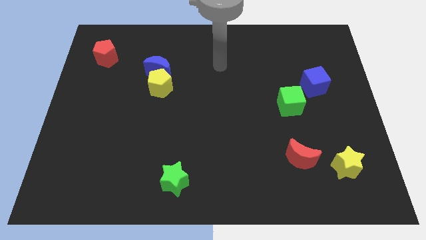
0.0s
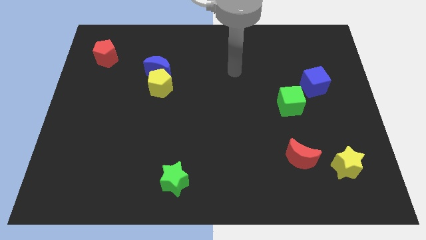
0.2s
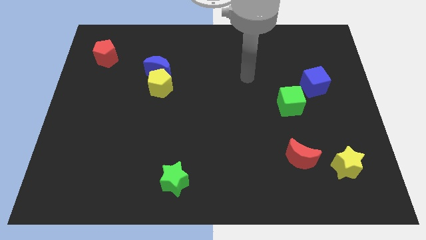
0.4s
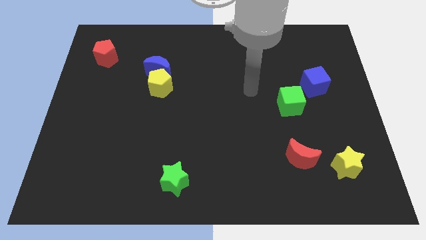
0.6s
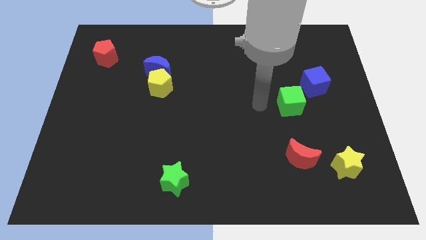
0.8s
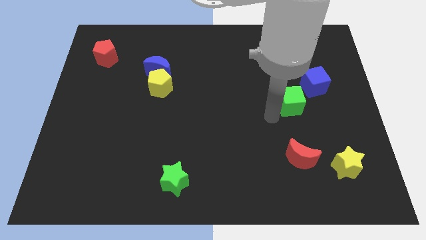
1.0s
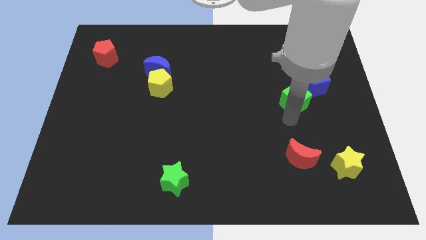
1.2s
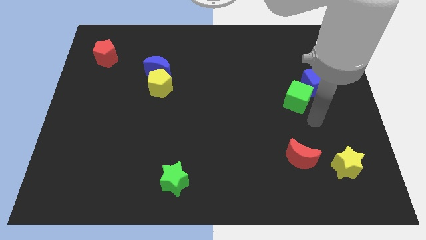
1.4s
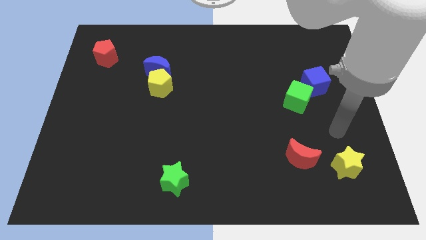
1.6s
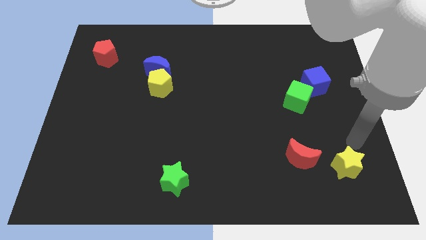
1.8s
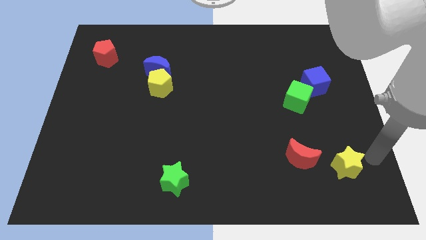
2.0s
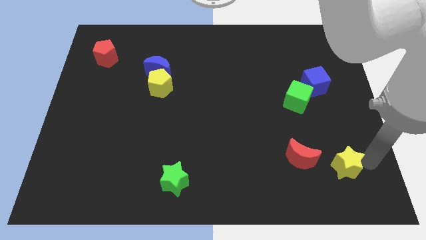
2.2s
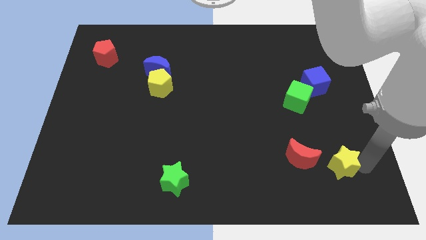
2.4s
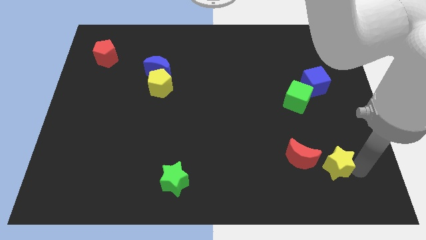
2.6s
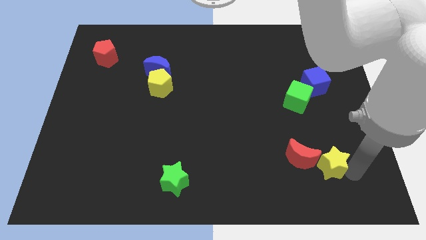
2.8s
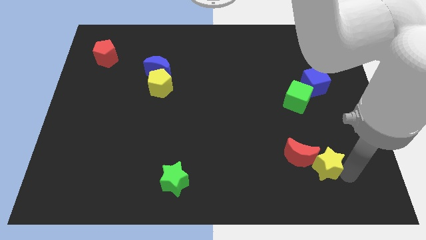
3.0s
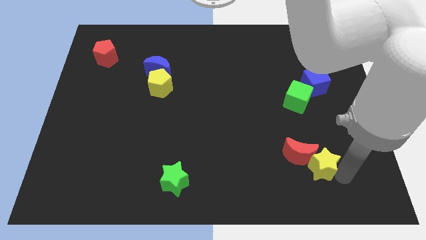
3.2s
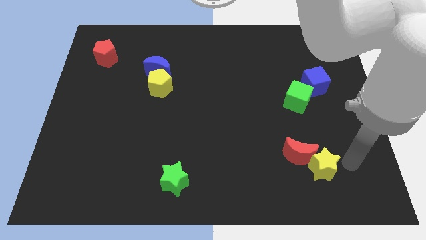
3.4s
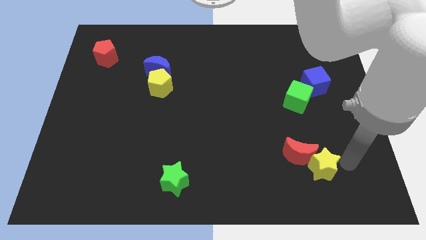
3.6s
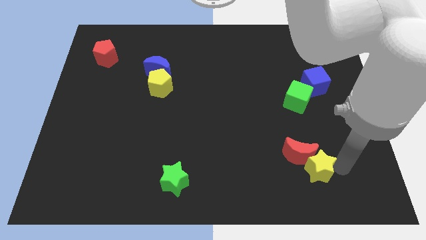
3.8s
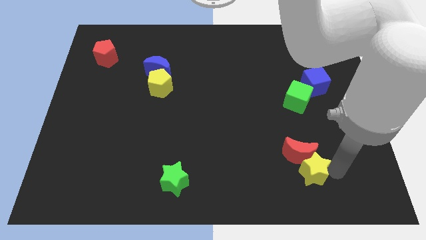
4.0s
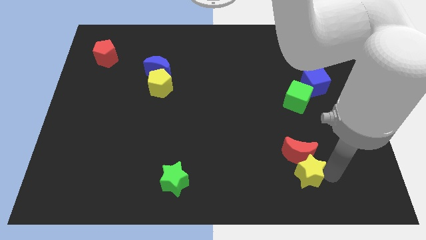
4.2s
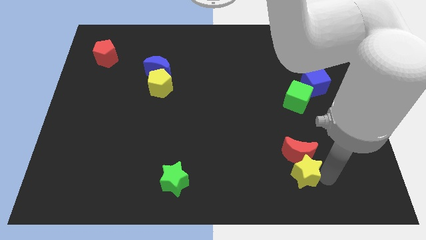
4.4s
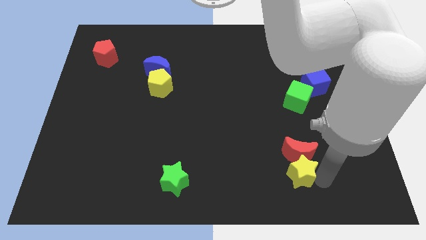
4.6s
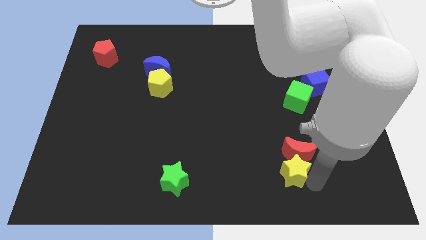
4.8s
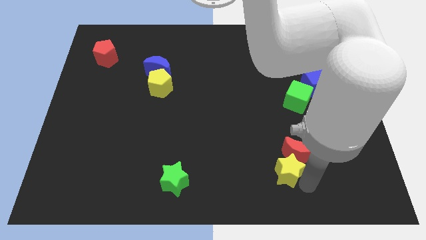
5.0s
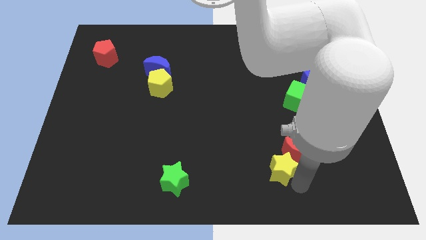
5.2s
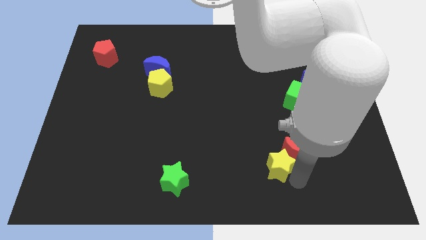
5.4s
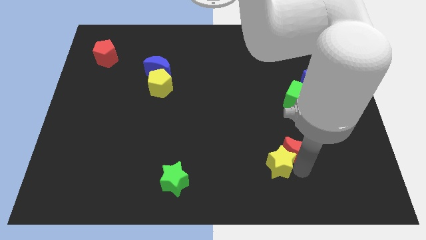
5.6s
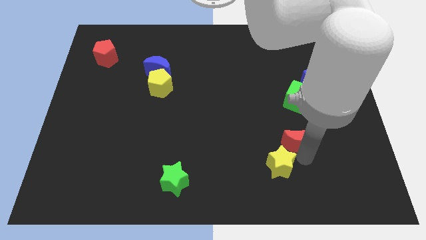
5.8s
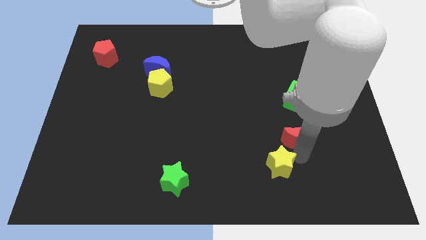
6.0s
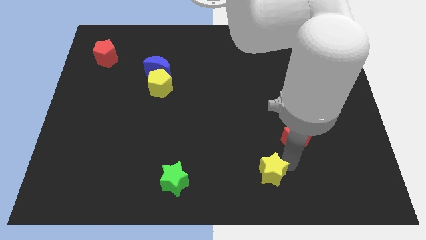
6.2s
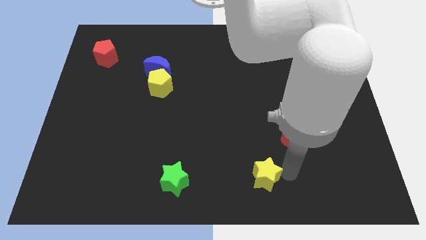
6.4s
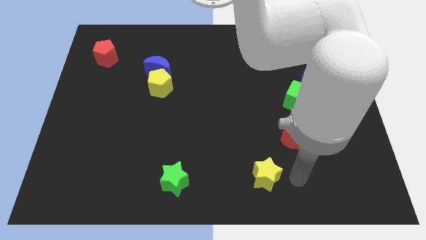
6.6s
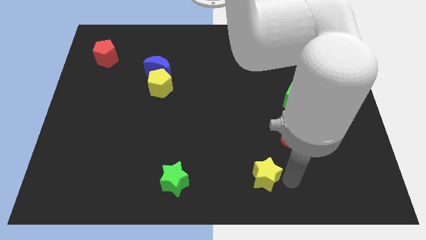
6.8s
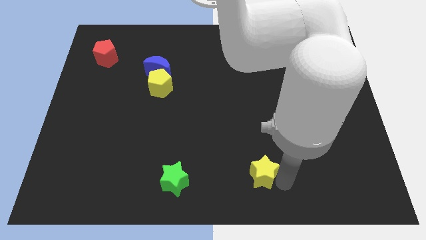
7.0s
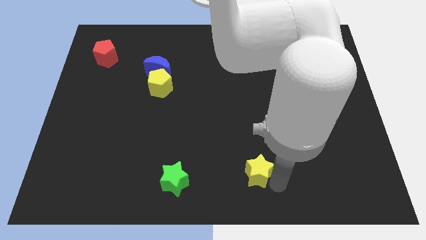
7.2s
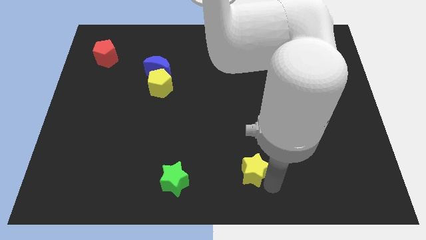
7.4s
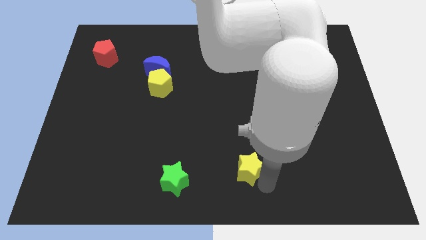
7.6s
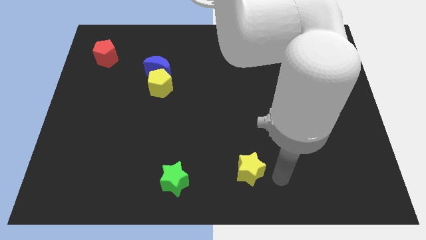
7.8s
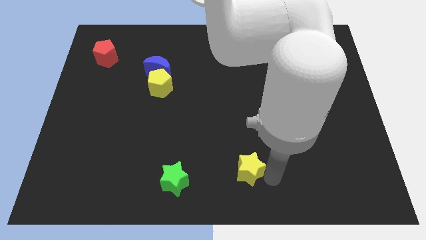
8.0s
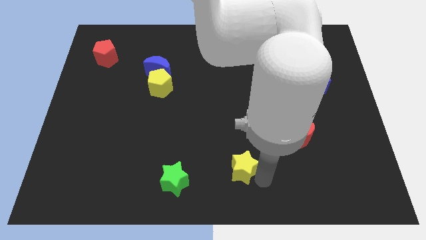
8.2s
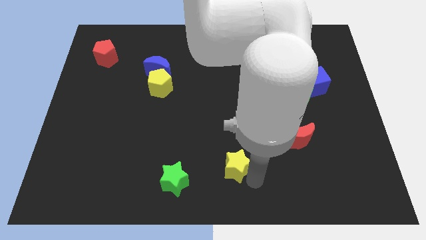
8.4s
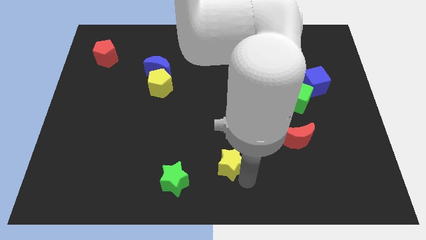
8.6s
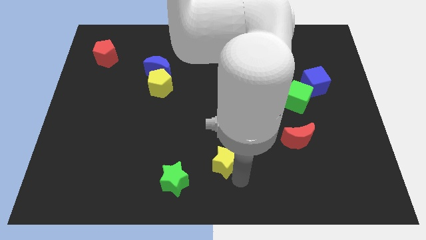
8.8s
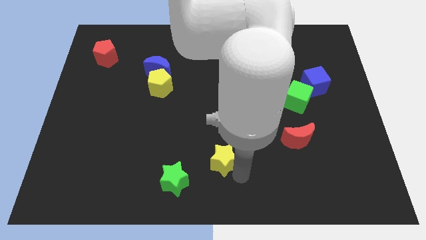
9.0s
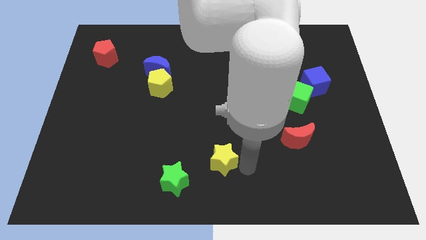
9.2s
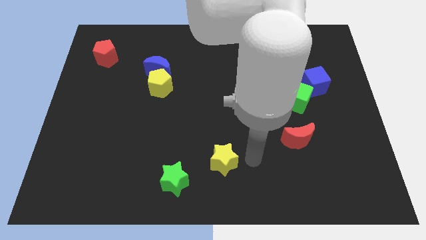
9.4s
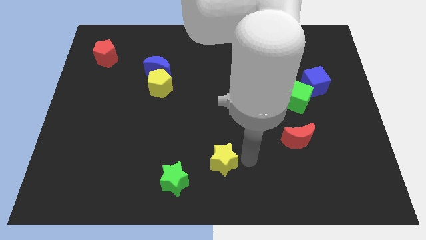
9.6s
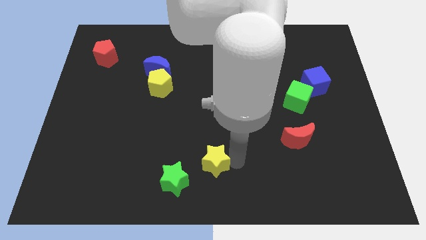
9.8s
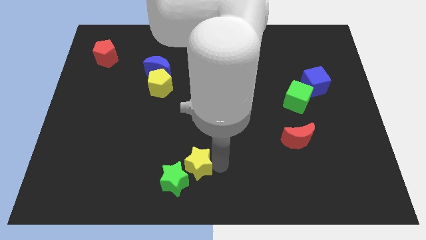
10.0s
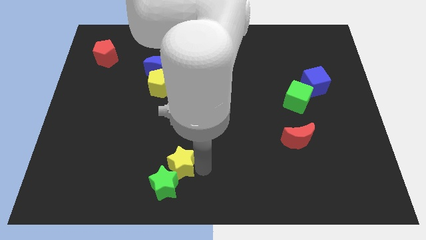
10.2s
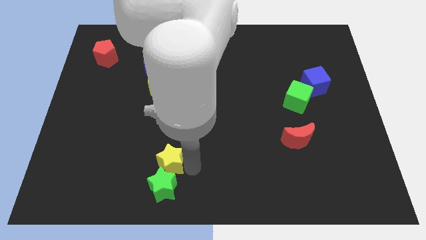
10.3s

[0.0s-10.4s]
move the yellow star to the top left side of the green star

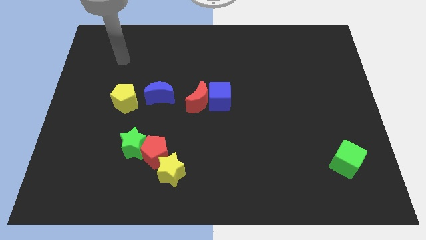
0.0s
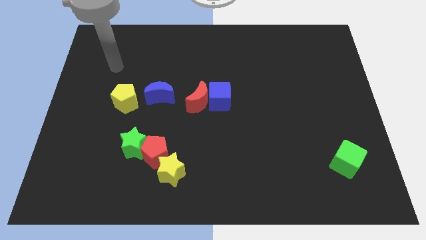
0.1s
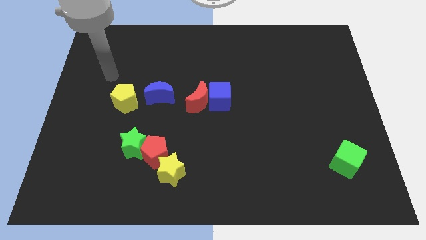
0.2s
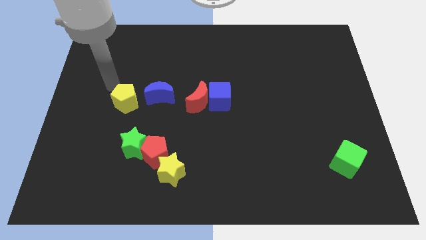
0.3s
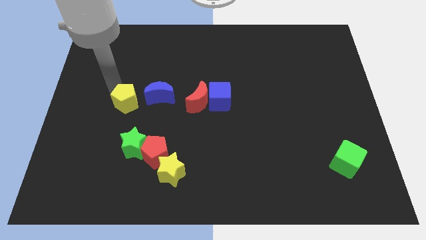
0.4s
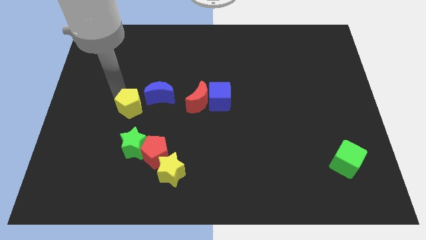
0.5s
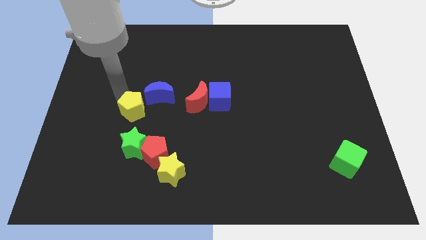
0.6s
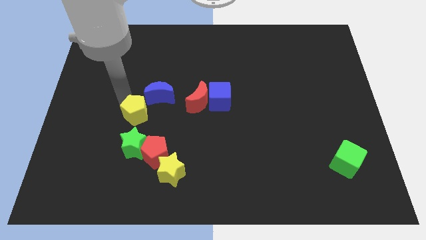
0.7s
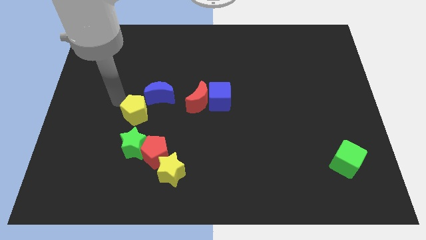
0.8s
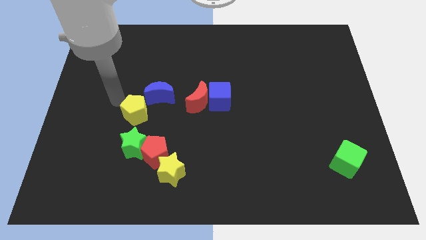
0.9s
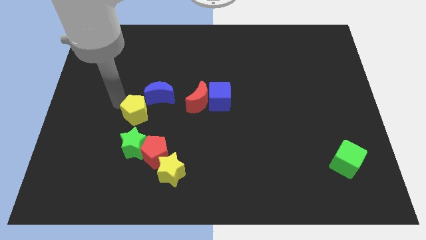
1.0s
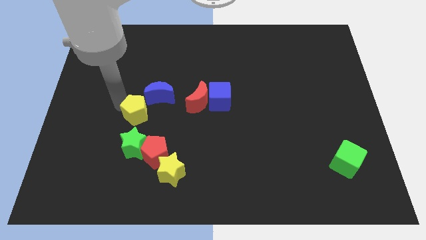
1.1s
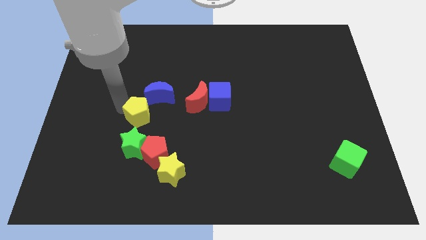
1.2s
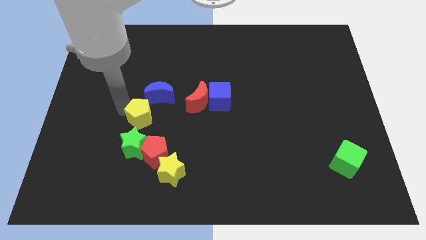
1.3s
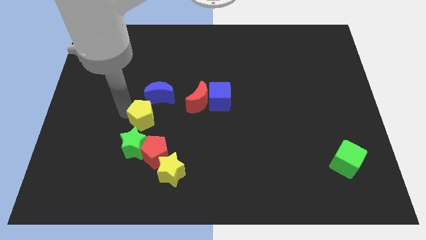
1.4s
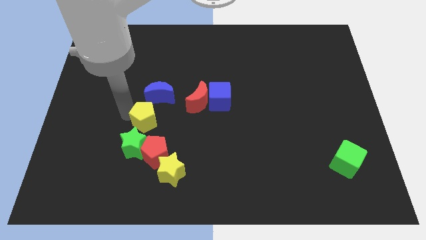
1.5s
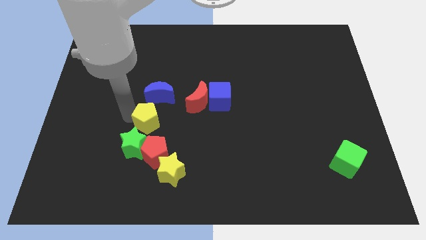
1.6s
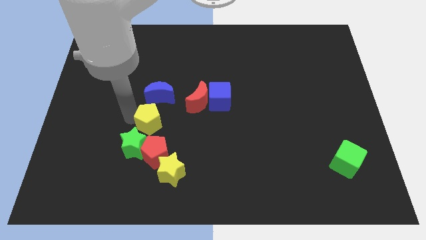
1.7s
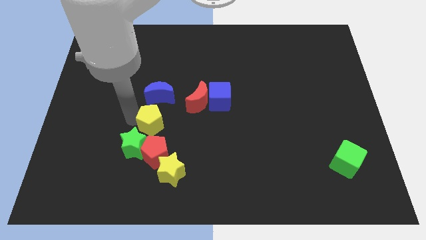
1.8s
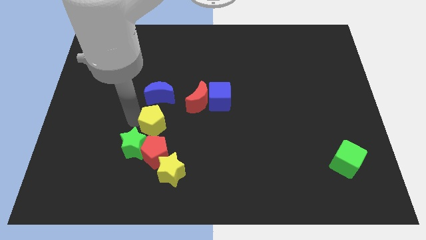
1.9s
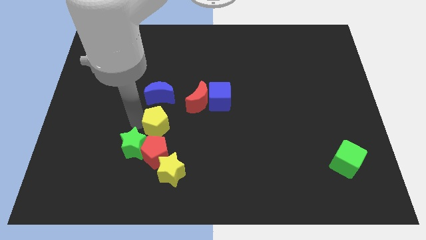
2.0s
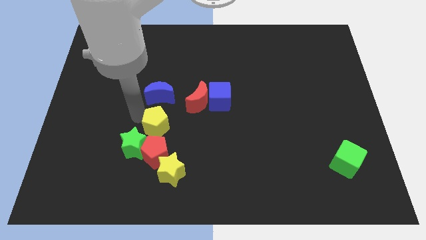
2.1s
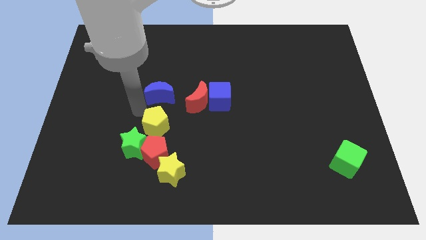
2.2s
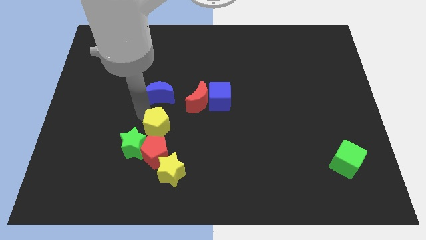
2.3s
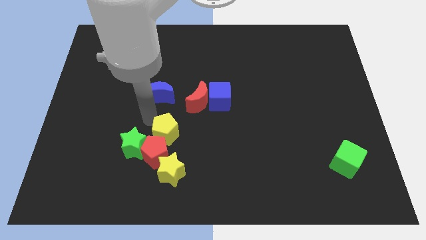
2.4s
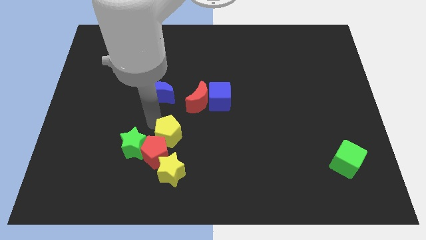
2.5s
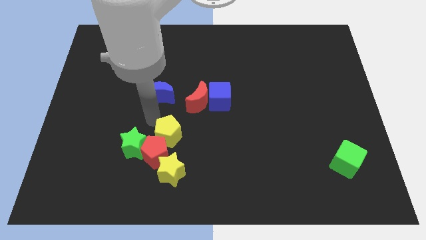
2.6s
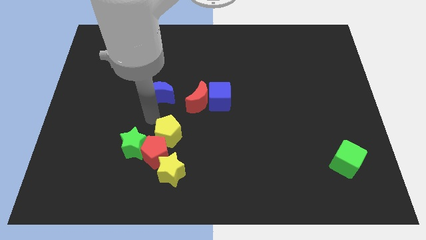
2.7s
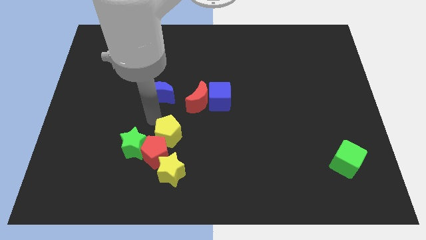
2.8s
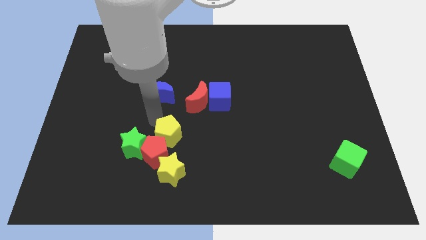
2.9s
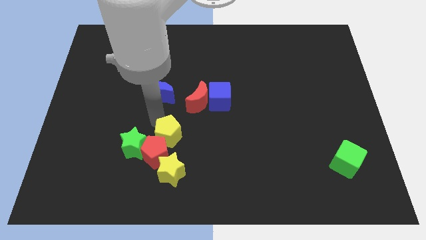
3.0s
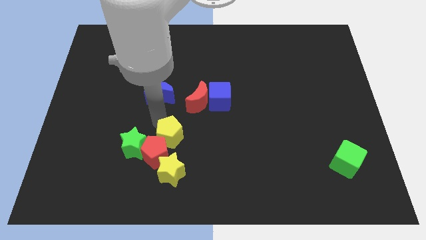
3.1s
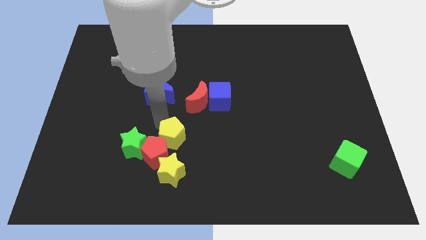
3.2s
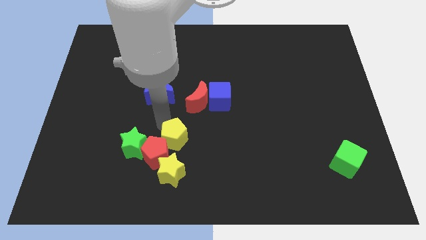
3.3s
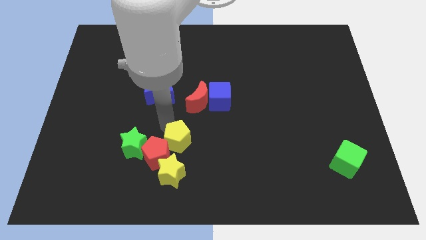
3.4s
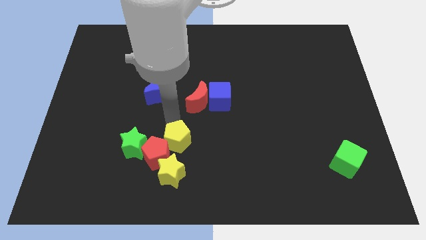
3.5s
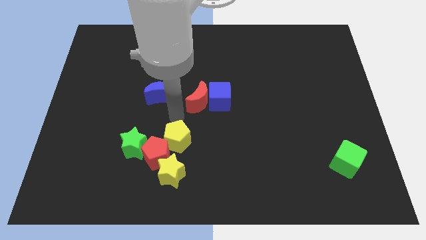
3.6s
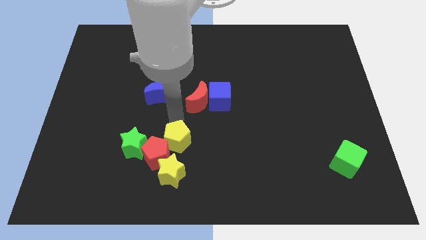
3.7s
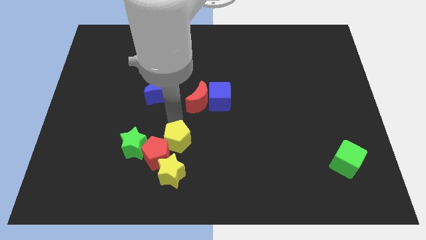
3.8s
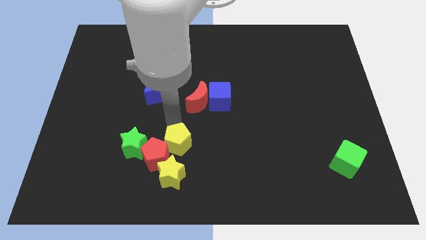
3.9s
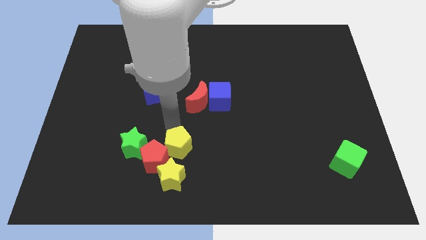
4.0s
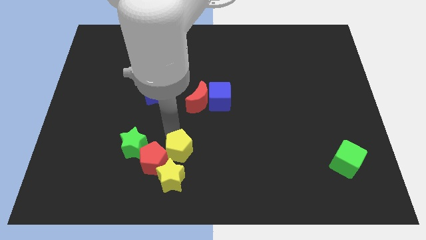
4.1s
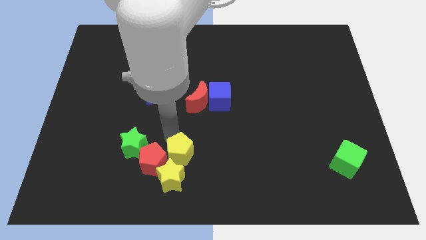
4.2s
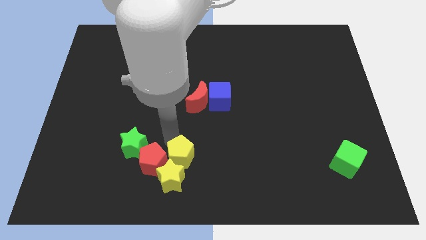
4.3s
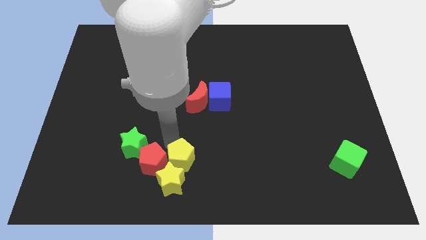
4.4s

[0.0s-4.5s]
move the yellow pentagon to the bottom right side of the red pentagon
